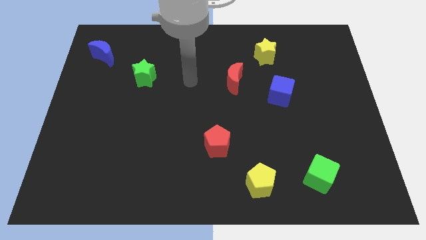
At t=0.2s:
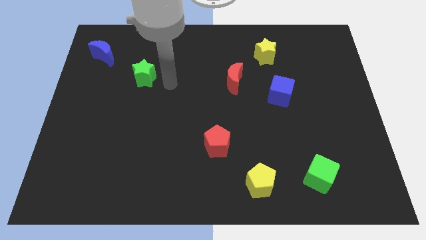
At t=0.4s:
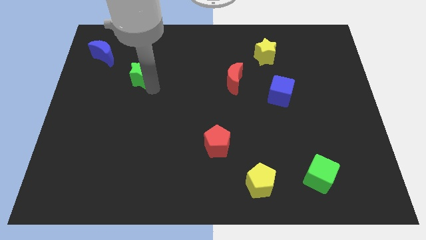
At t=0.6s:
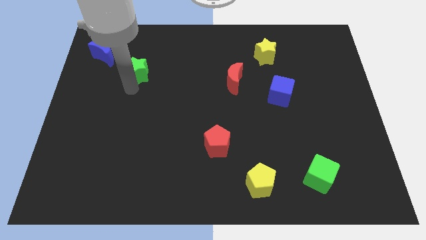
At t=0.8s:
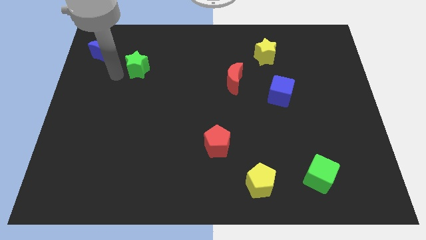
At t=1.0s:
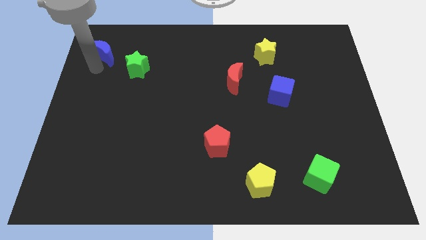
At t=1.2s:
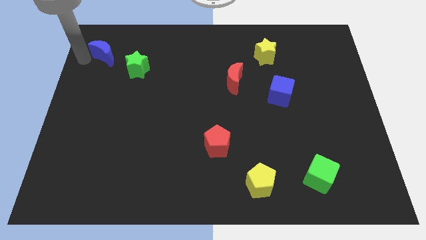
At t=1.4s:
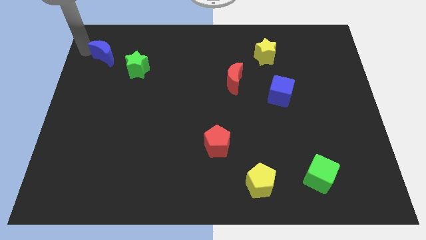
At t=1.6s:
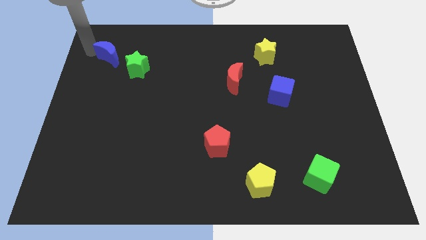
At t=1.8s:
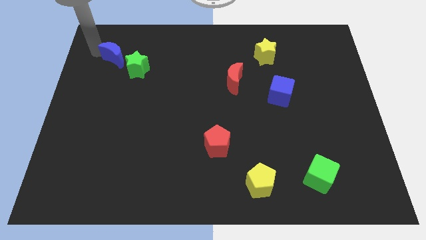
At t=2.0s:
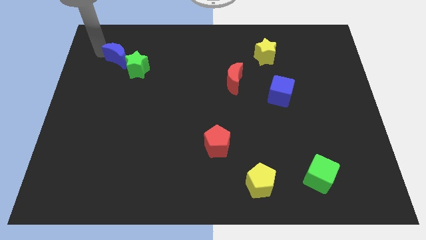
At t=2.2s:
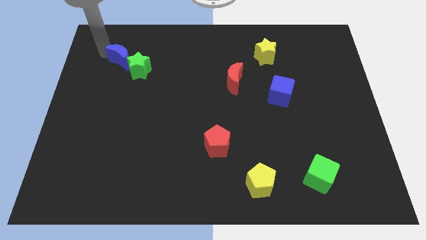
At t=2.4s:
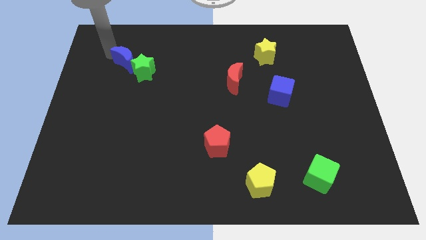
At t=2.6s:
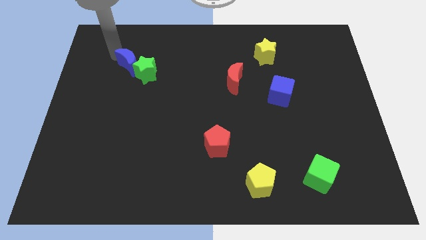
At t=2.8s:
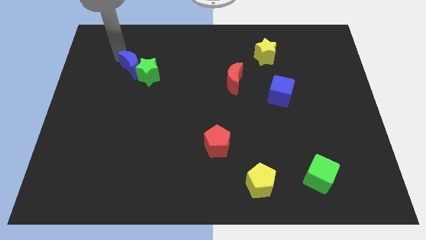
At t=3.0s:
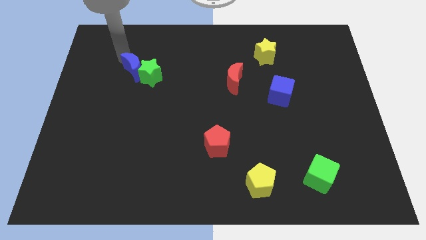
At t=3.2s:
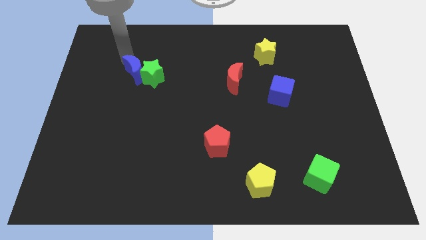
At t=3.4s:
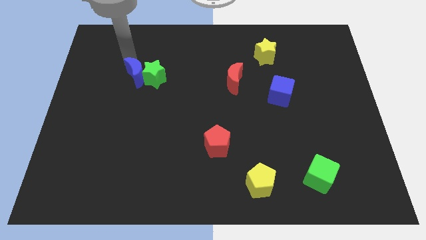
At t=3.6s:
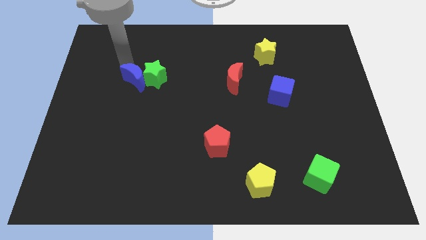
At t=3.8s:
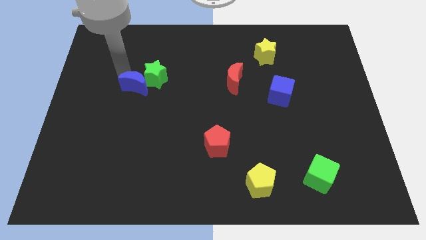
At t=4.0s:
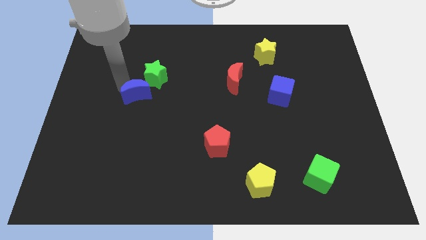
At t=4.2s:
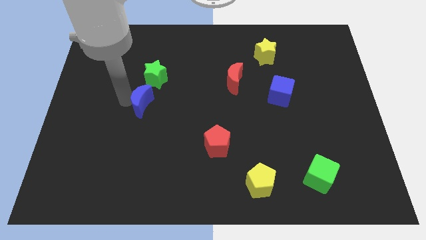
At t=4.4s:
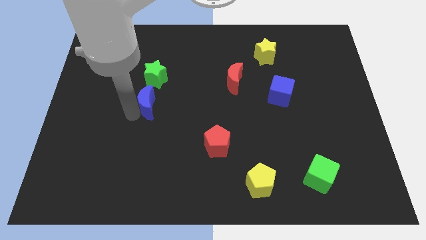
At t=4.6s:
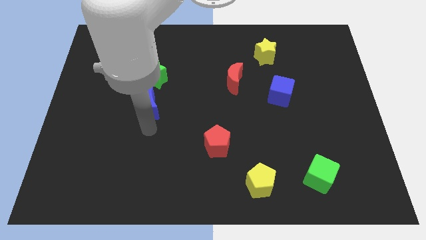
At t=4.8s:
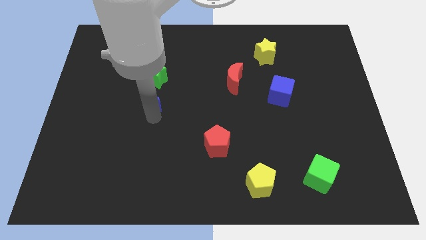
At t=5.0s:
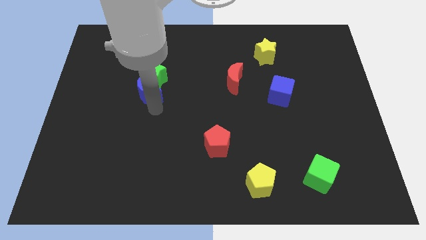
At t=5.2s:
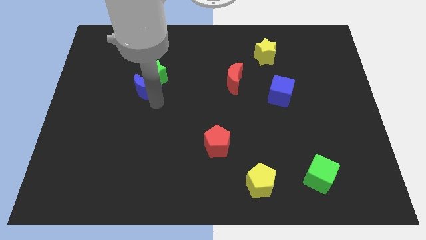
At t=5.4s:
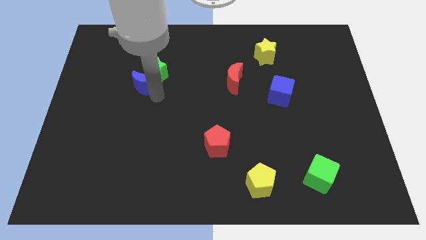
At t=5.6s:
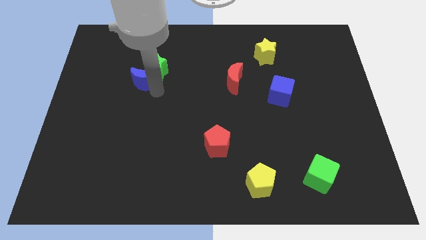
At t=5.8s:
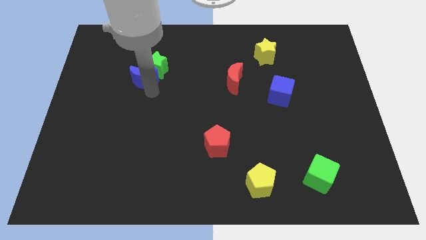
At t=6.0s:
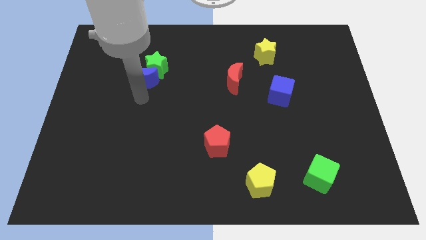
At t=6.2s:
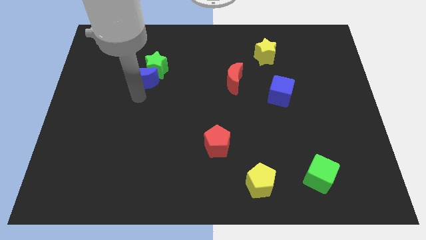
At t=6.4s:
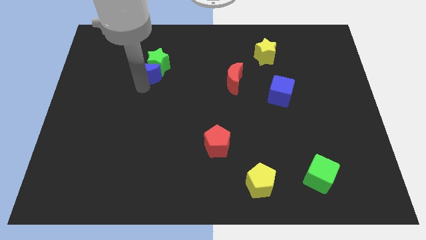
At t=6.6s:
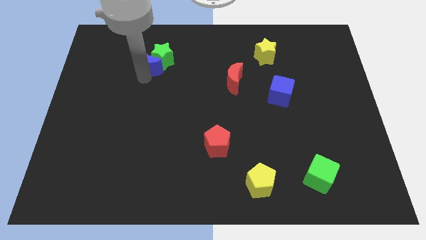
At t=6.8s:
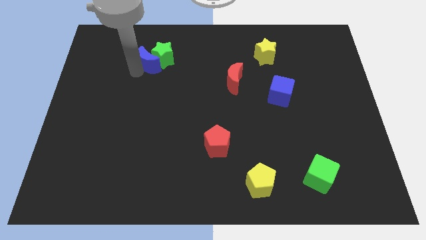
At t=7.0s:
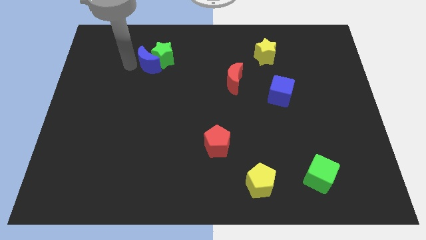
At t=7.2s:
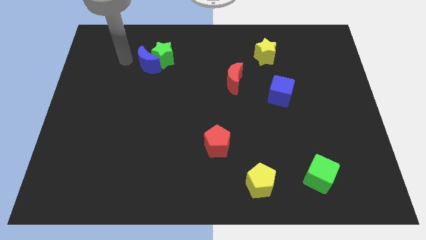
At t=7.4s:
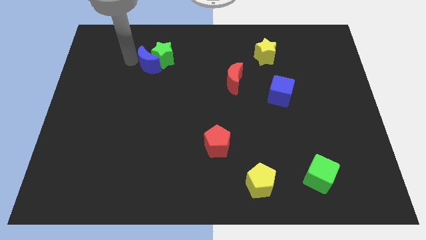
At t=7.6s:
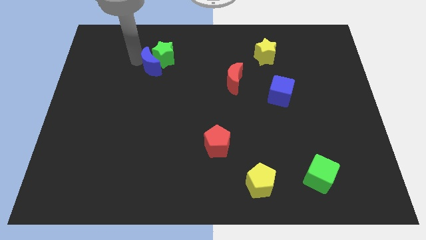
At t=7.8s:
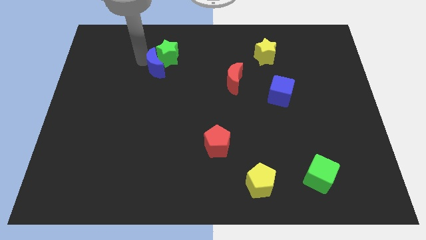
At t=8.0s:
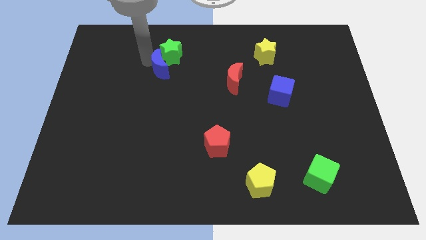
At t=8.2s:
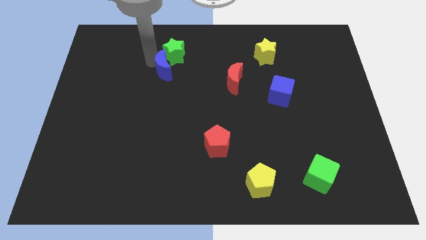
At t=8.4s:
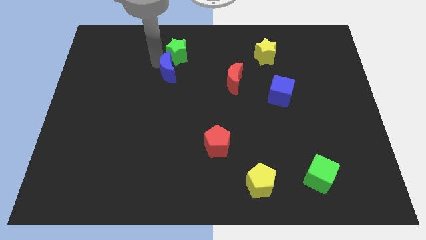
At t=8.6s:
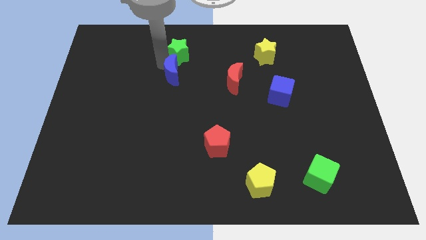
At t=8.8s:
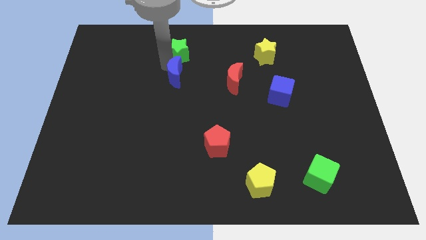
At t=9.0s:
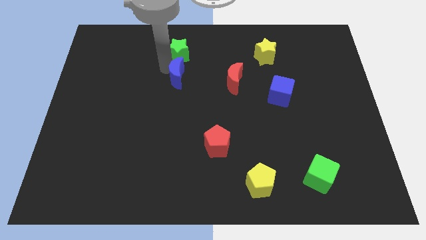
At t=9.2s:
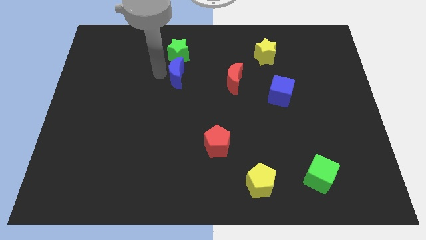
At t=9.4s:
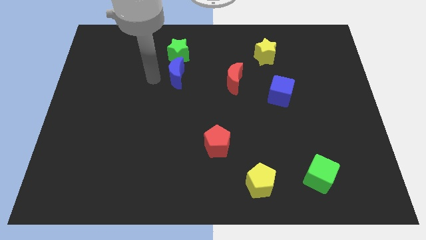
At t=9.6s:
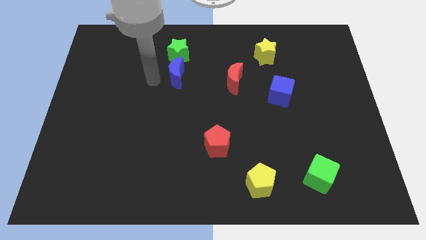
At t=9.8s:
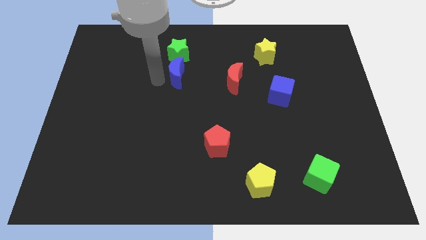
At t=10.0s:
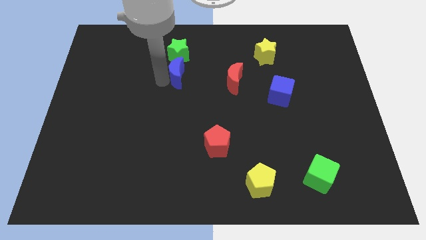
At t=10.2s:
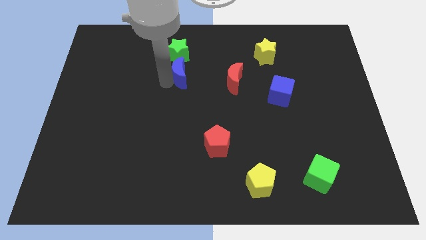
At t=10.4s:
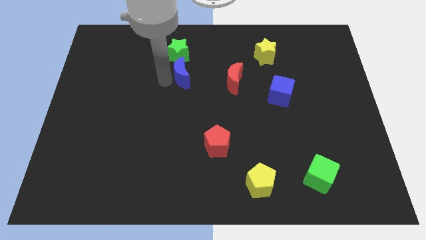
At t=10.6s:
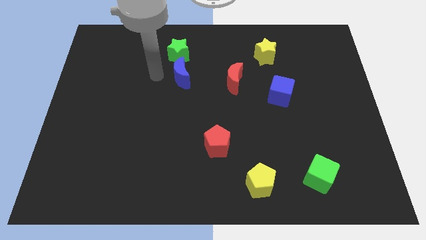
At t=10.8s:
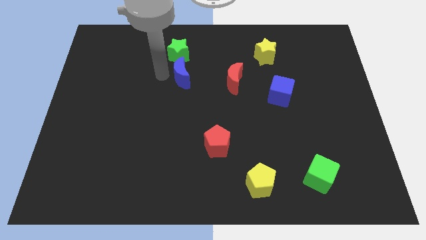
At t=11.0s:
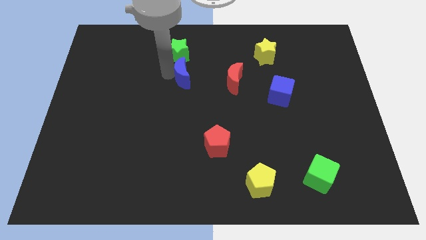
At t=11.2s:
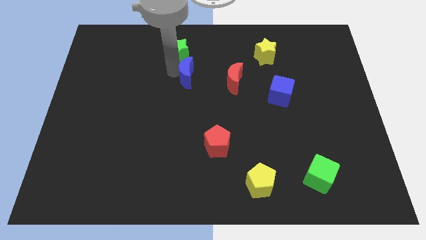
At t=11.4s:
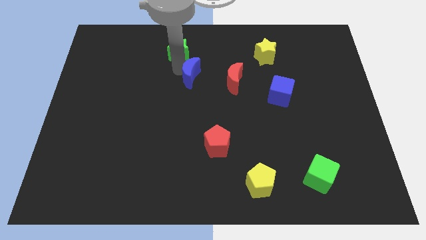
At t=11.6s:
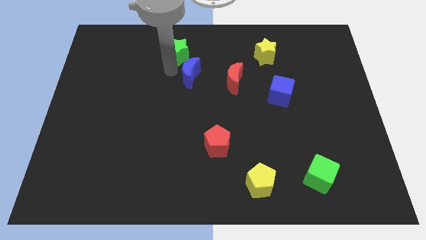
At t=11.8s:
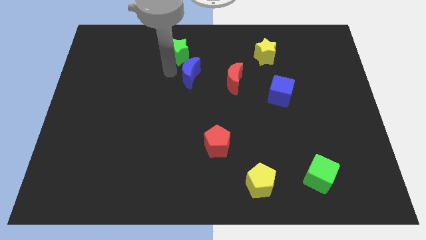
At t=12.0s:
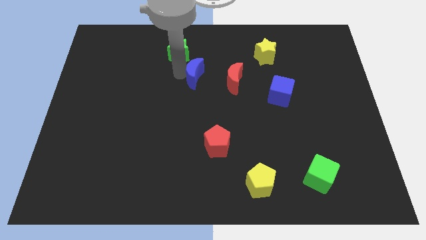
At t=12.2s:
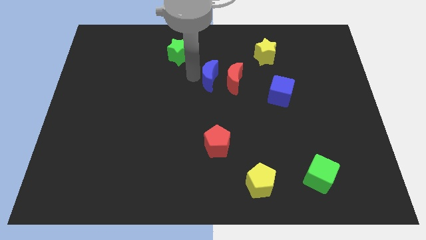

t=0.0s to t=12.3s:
put the blue moon towards the red moon

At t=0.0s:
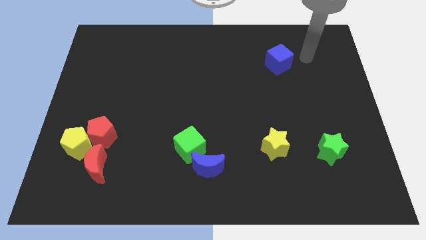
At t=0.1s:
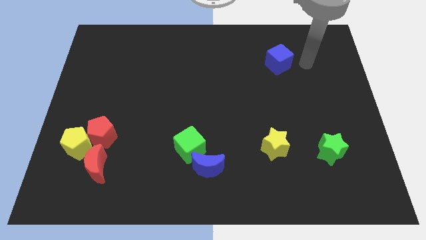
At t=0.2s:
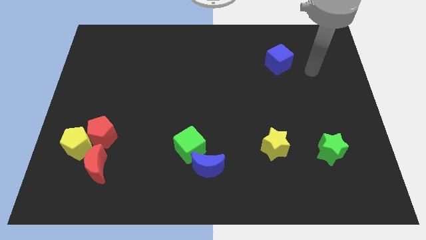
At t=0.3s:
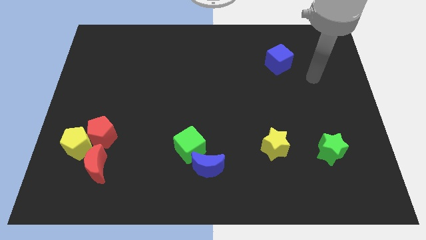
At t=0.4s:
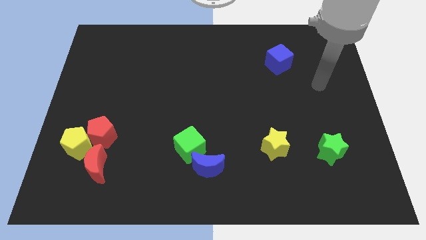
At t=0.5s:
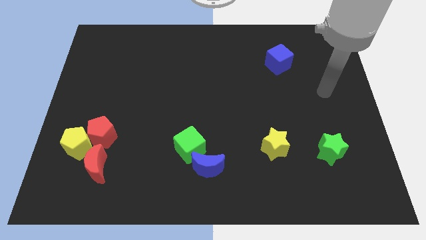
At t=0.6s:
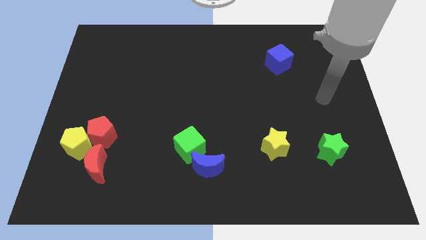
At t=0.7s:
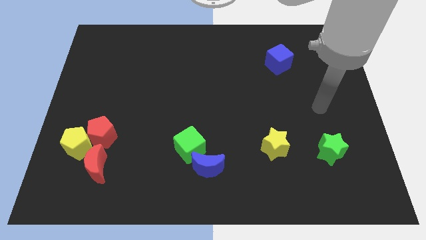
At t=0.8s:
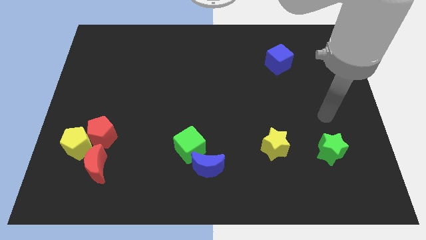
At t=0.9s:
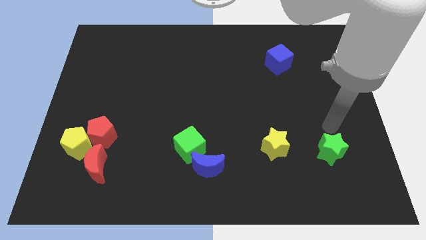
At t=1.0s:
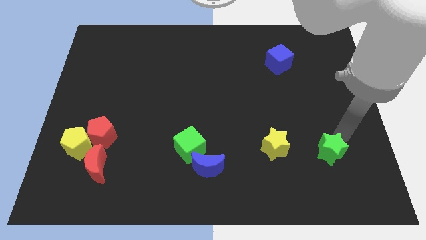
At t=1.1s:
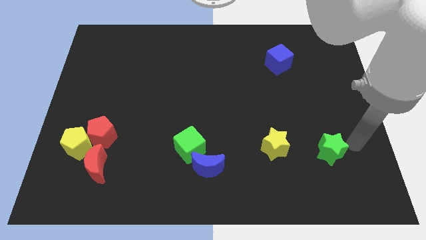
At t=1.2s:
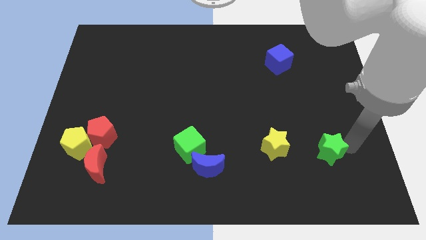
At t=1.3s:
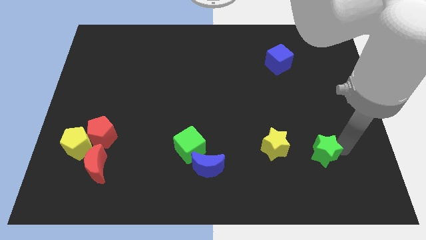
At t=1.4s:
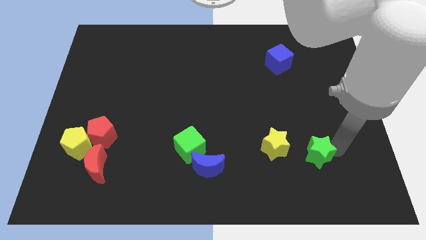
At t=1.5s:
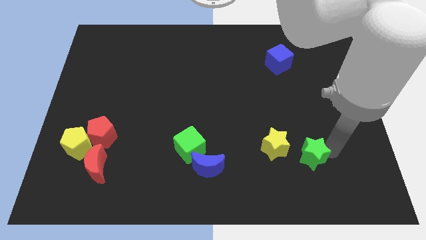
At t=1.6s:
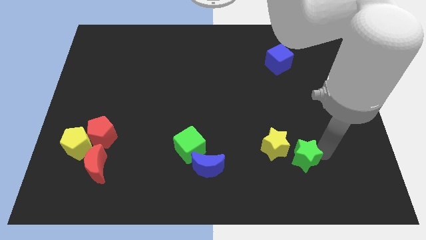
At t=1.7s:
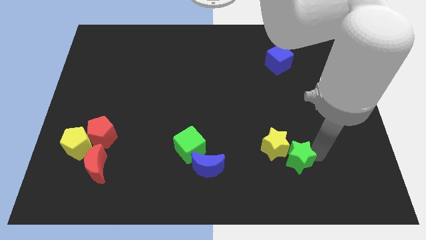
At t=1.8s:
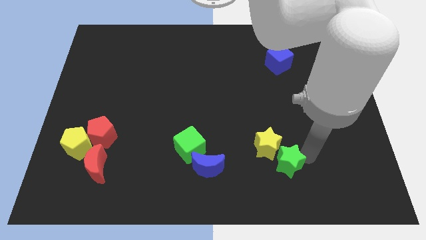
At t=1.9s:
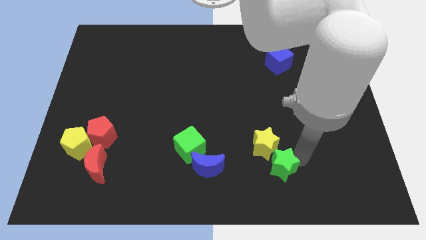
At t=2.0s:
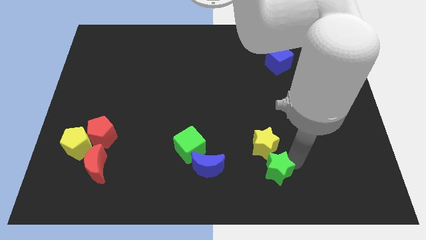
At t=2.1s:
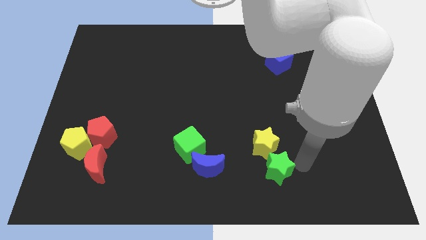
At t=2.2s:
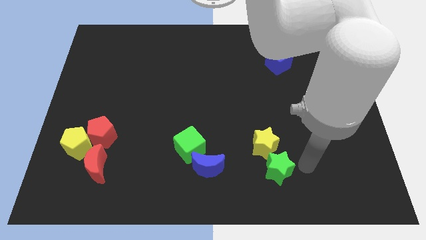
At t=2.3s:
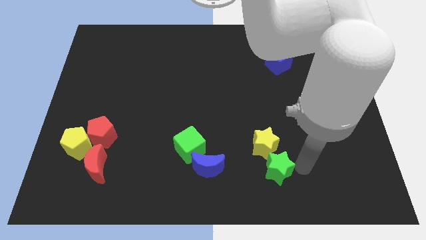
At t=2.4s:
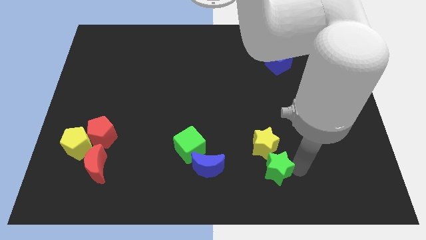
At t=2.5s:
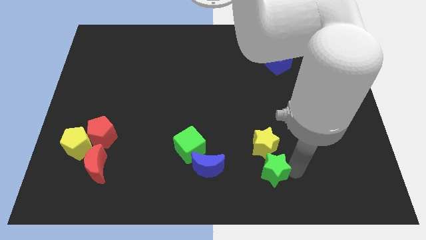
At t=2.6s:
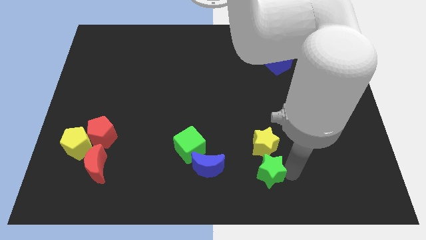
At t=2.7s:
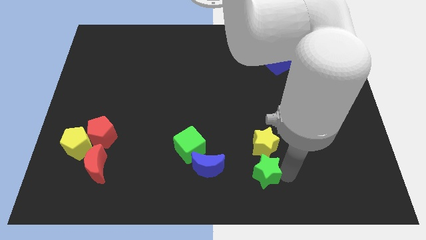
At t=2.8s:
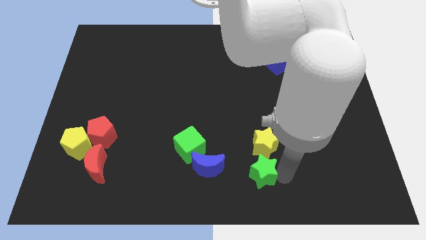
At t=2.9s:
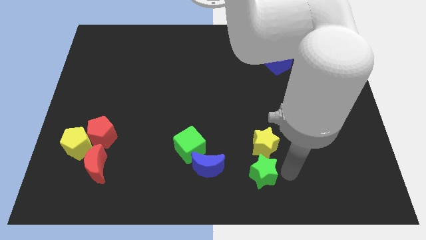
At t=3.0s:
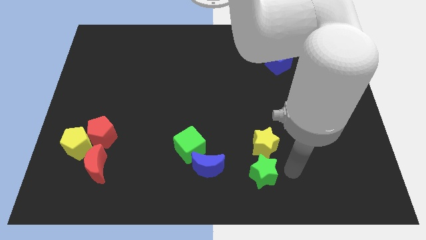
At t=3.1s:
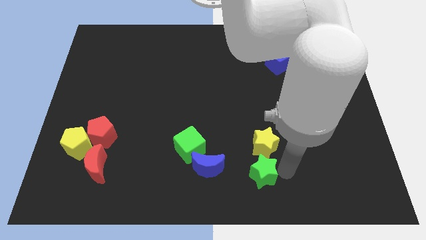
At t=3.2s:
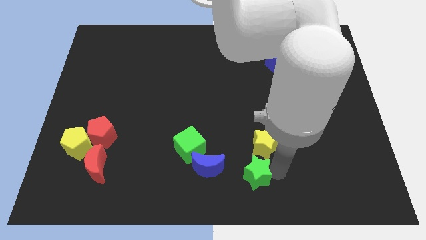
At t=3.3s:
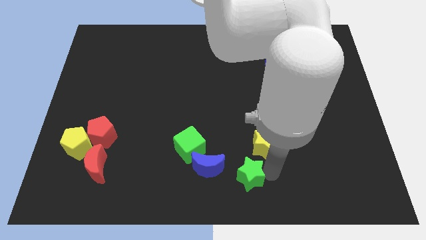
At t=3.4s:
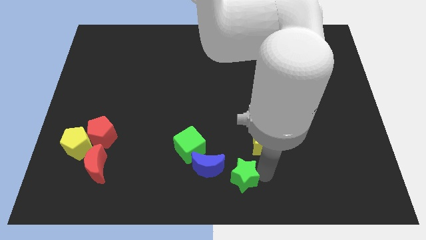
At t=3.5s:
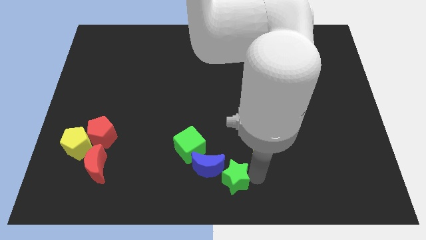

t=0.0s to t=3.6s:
put the green star to the blue moon
